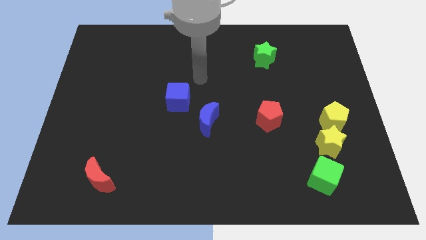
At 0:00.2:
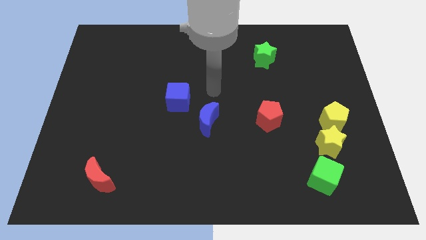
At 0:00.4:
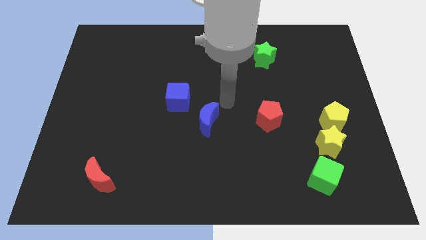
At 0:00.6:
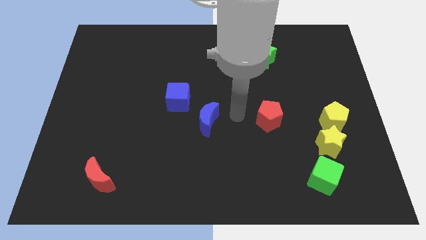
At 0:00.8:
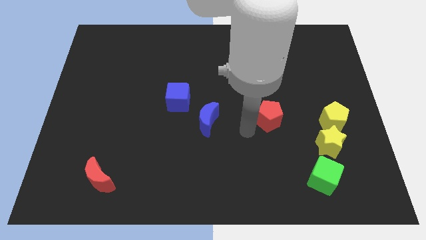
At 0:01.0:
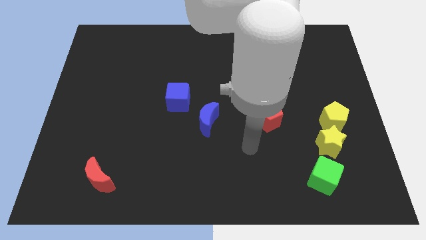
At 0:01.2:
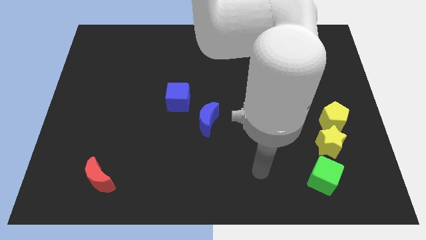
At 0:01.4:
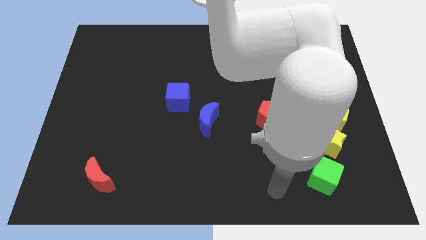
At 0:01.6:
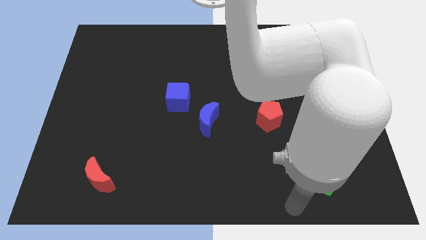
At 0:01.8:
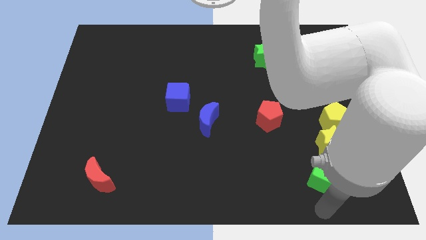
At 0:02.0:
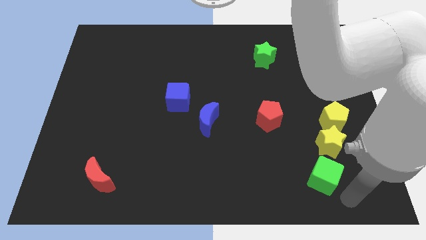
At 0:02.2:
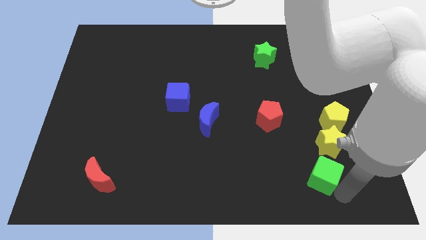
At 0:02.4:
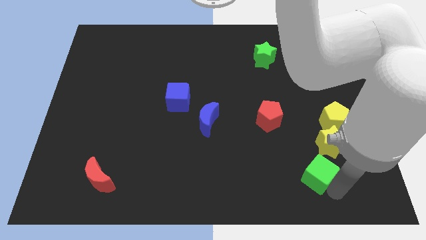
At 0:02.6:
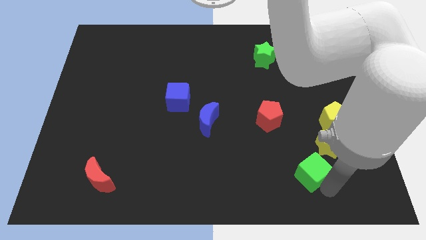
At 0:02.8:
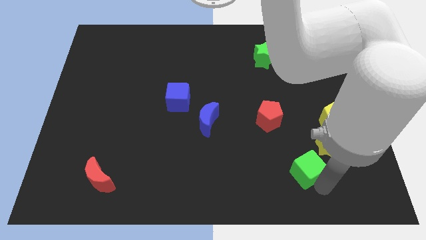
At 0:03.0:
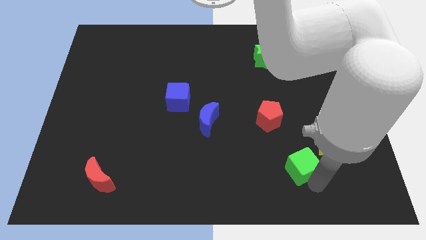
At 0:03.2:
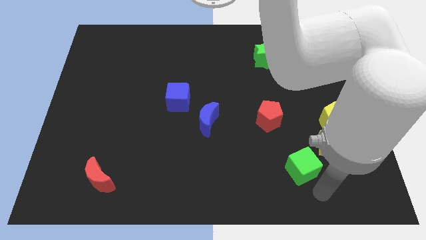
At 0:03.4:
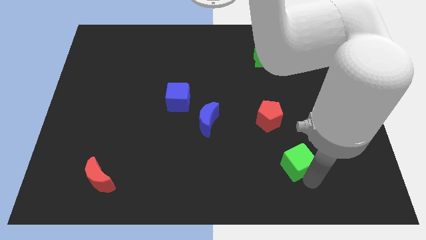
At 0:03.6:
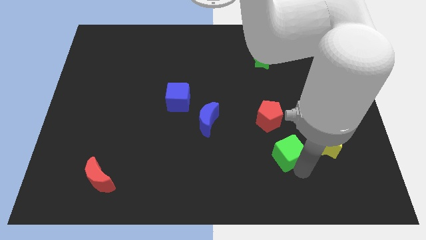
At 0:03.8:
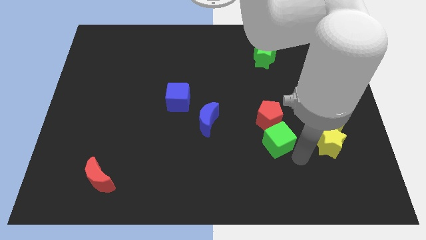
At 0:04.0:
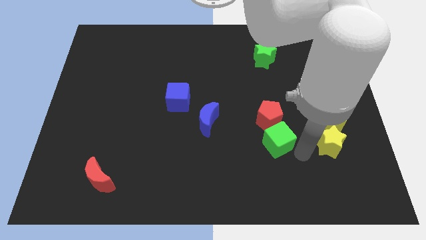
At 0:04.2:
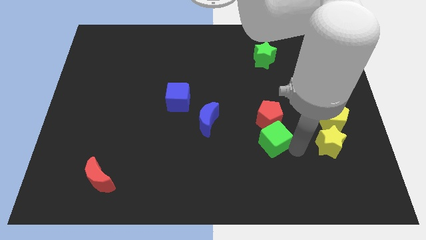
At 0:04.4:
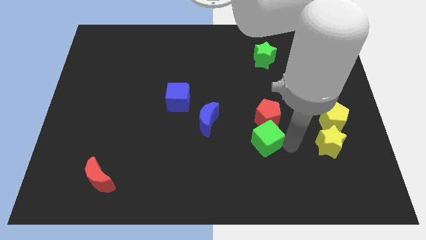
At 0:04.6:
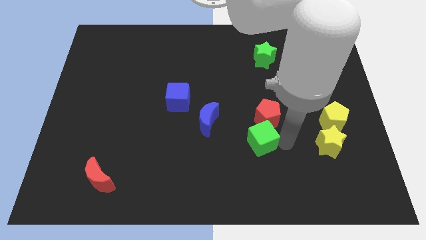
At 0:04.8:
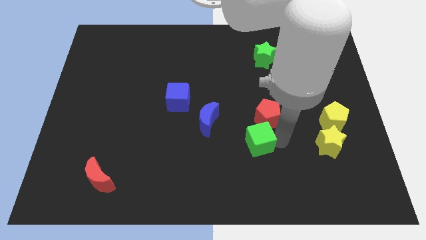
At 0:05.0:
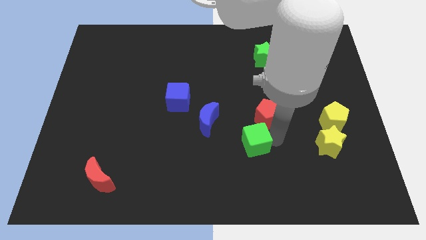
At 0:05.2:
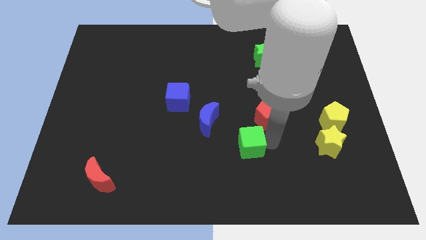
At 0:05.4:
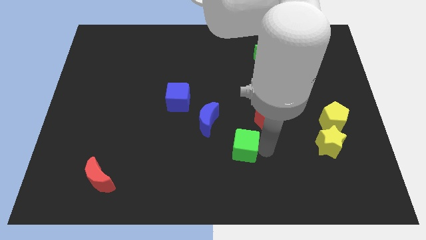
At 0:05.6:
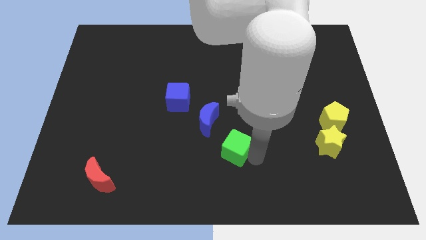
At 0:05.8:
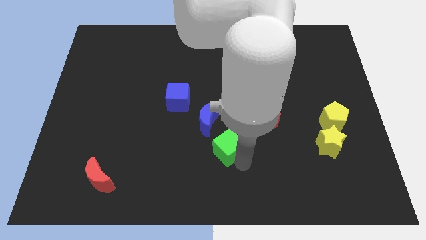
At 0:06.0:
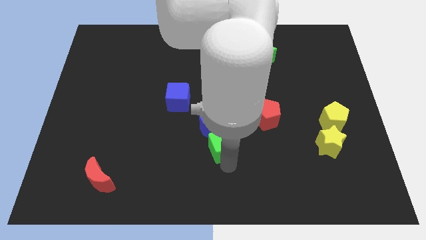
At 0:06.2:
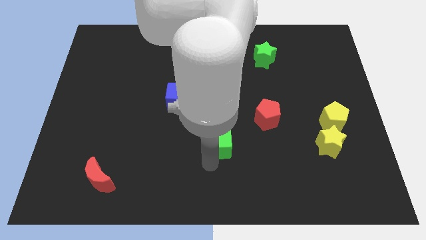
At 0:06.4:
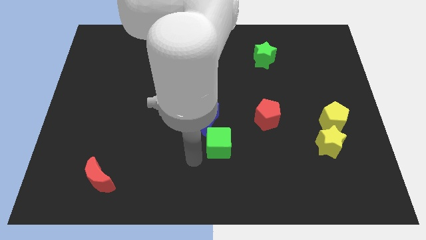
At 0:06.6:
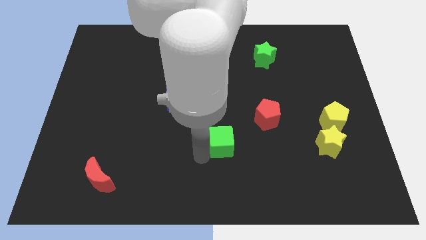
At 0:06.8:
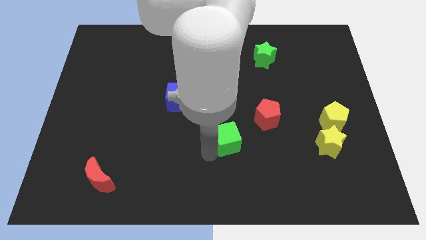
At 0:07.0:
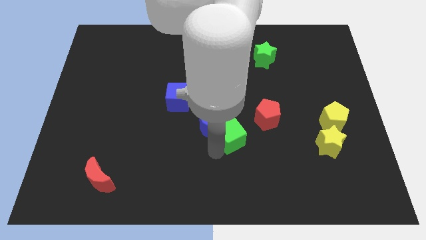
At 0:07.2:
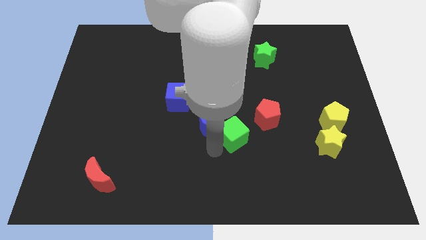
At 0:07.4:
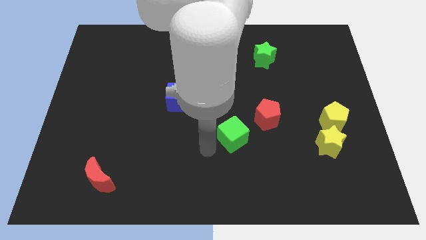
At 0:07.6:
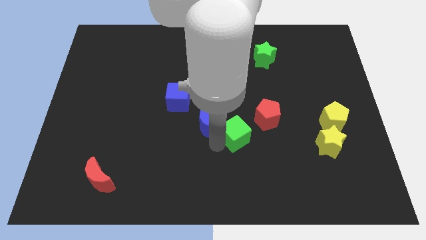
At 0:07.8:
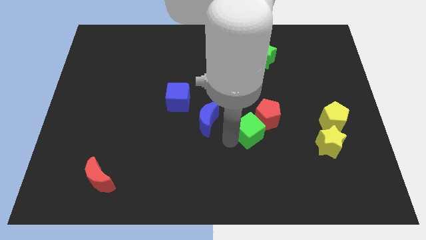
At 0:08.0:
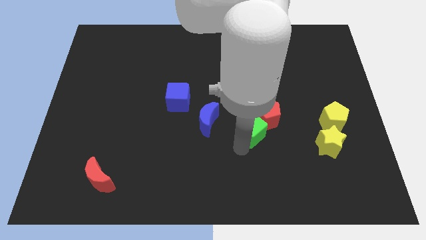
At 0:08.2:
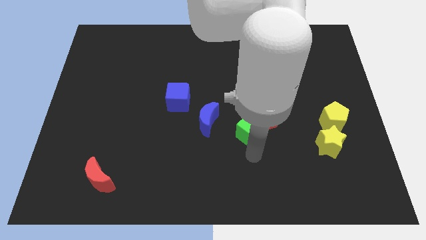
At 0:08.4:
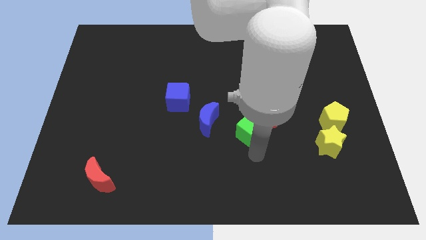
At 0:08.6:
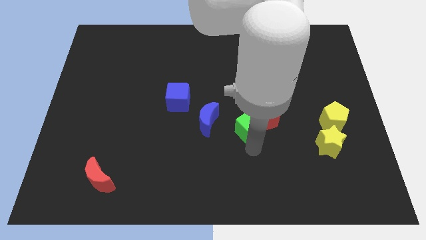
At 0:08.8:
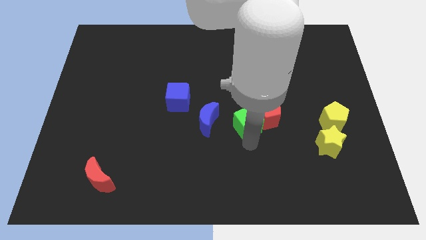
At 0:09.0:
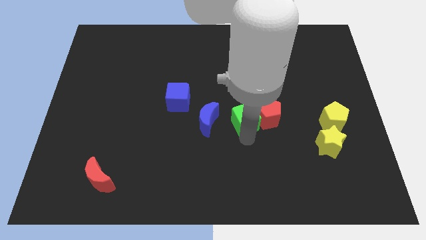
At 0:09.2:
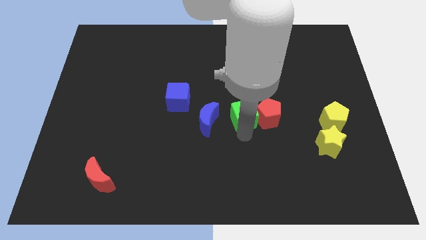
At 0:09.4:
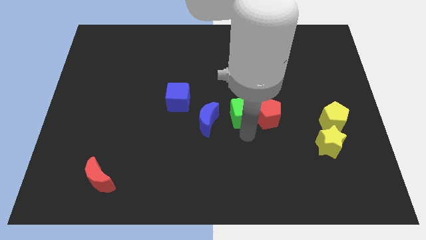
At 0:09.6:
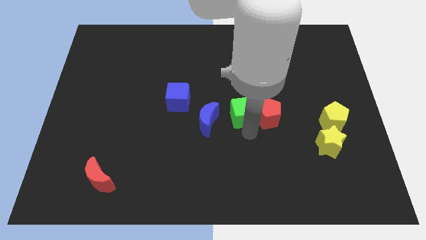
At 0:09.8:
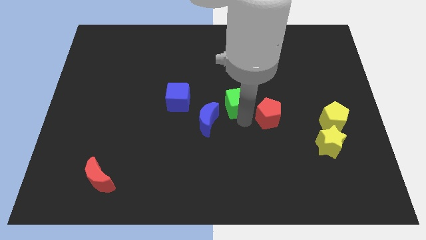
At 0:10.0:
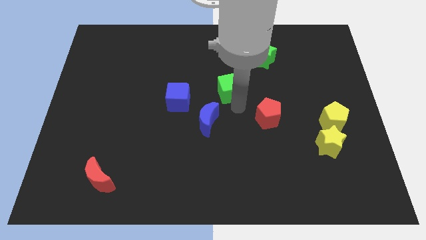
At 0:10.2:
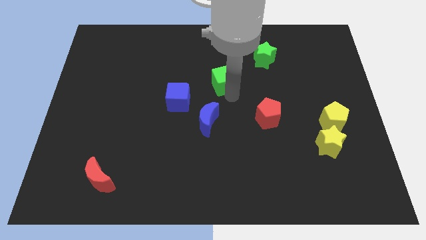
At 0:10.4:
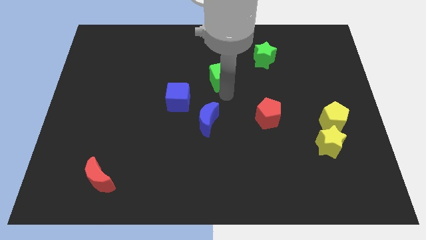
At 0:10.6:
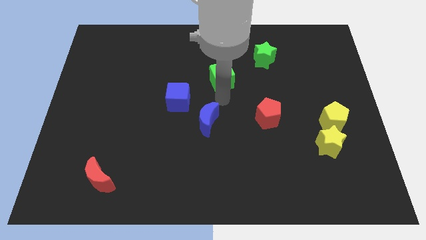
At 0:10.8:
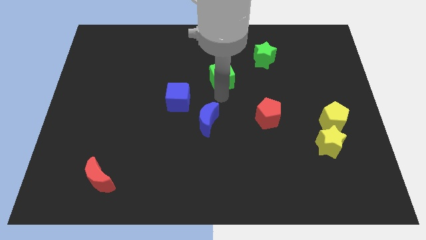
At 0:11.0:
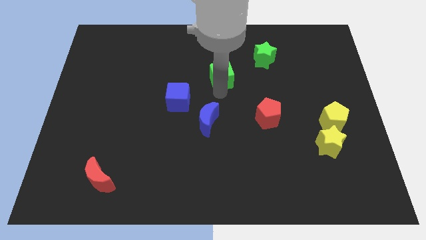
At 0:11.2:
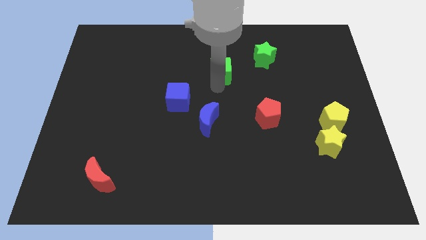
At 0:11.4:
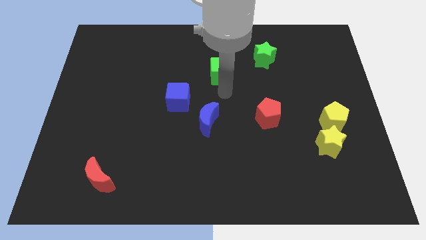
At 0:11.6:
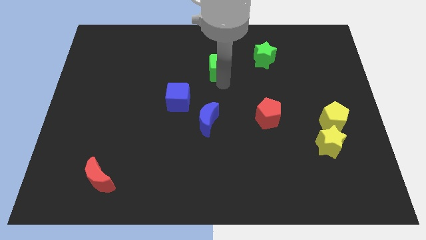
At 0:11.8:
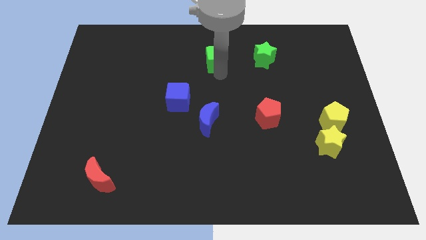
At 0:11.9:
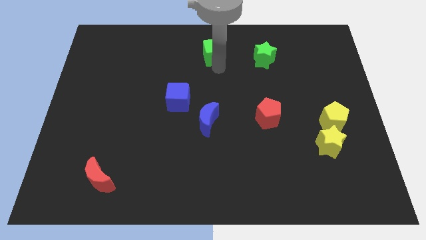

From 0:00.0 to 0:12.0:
push the green cube to the towards your base
